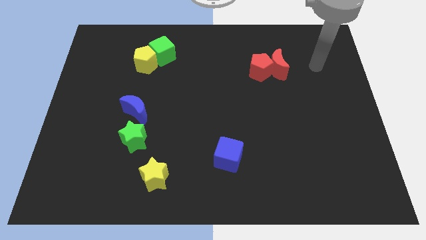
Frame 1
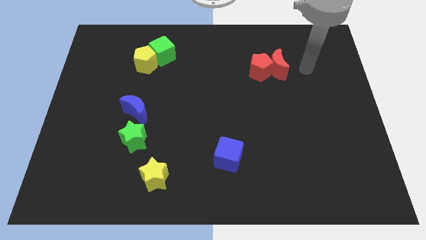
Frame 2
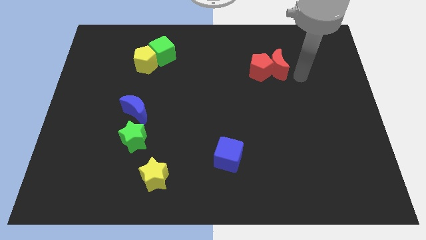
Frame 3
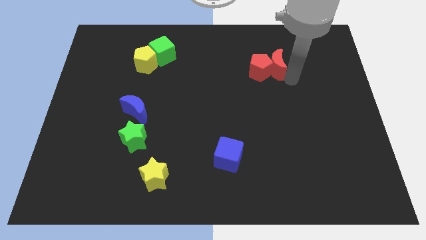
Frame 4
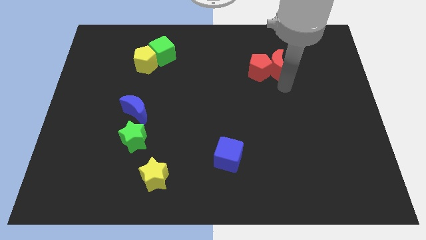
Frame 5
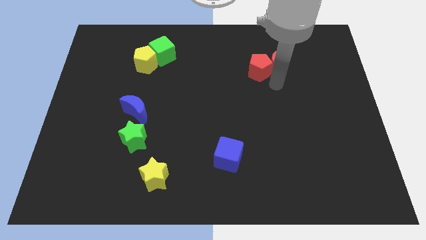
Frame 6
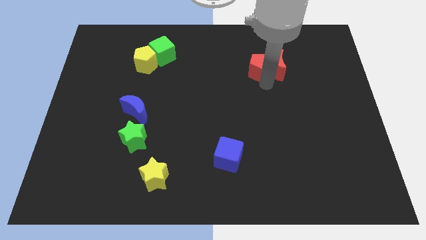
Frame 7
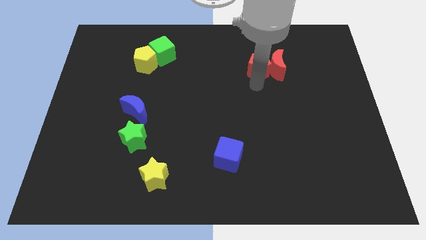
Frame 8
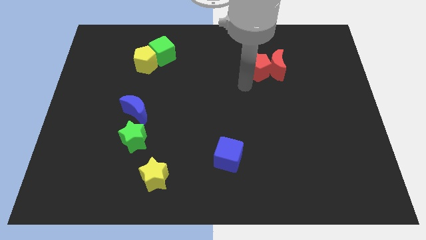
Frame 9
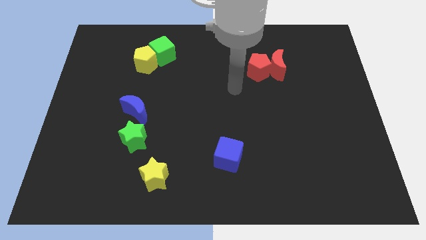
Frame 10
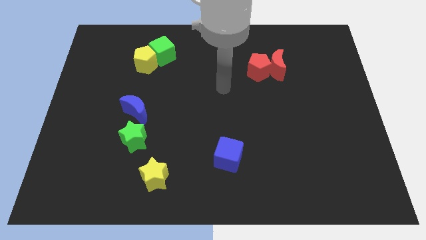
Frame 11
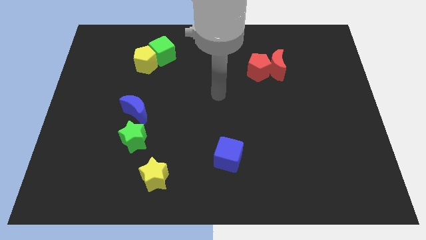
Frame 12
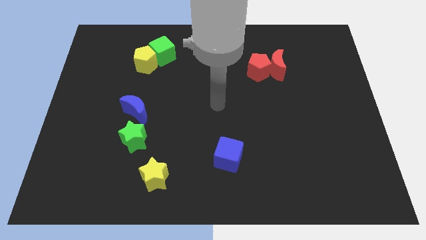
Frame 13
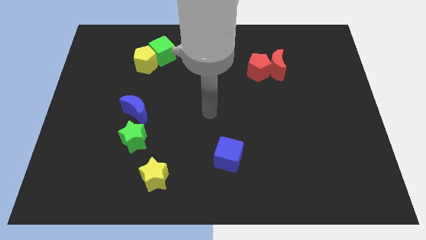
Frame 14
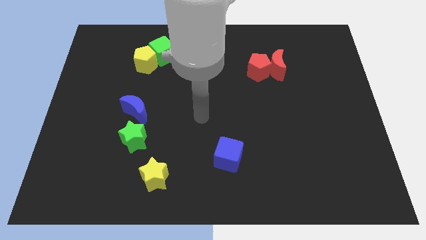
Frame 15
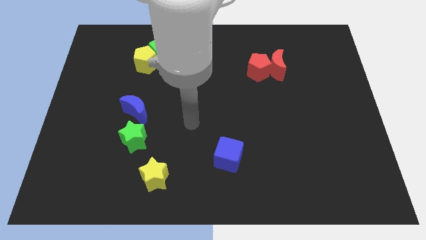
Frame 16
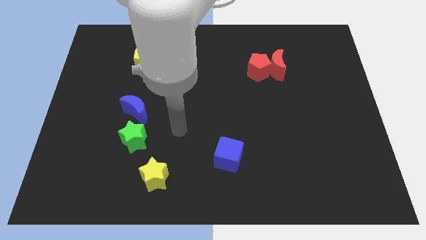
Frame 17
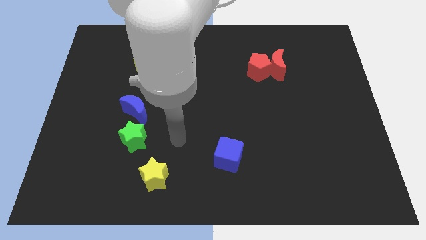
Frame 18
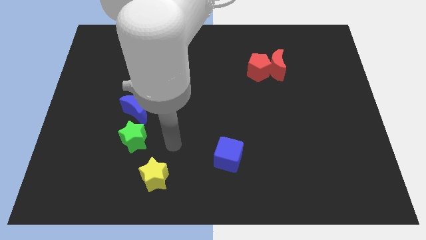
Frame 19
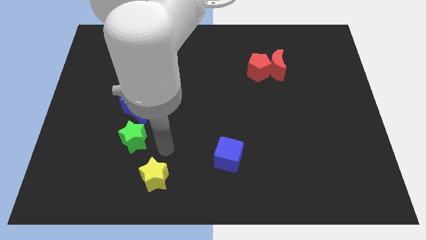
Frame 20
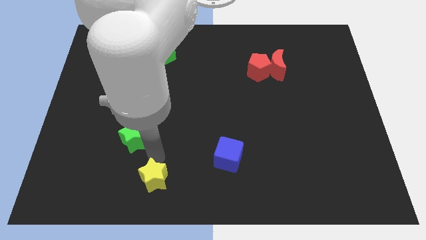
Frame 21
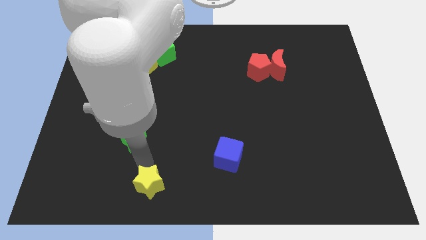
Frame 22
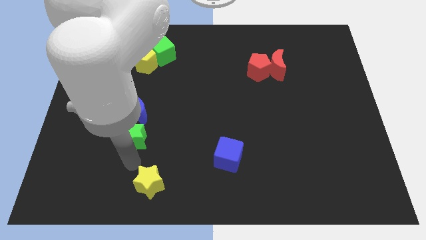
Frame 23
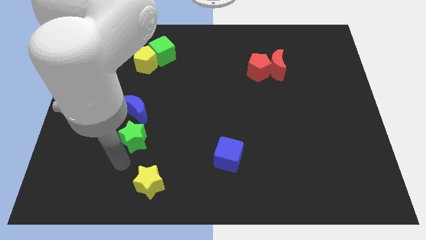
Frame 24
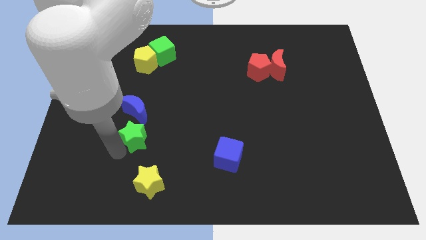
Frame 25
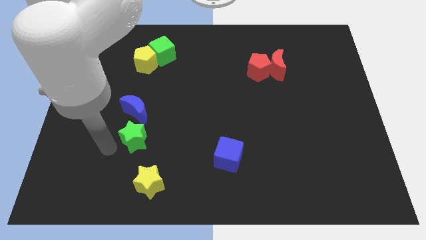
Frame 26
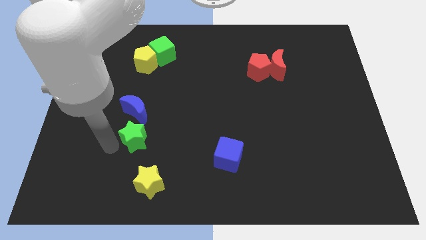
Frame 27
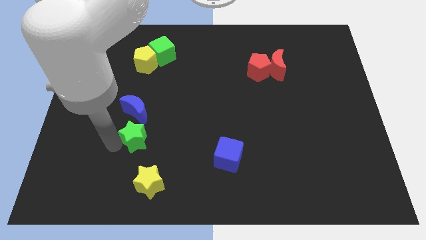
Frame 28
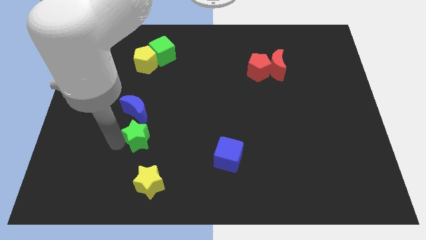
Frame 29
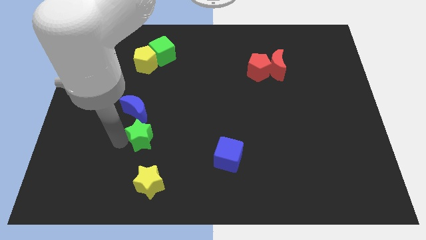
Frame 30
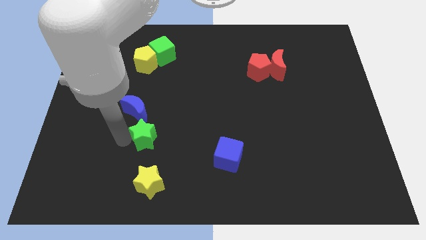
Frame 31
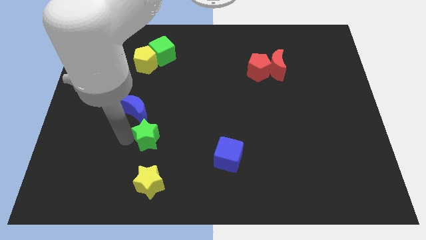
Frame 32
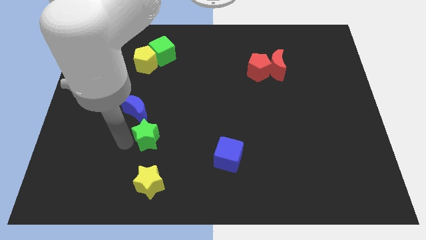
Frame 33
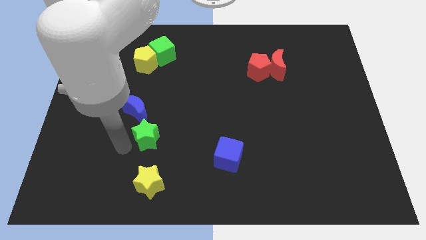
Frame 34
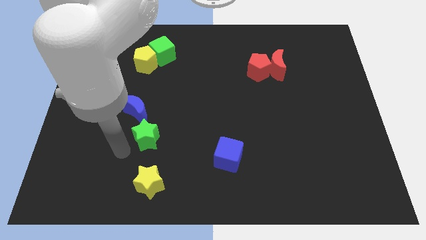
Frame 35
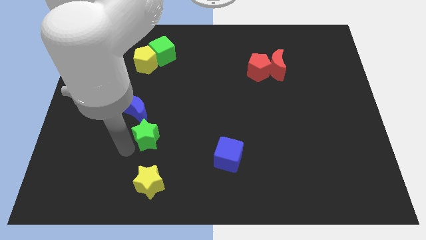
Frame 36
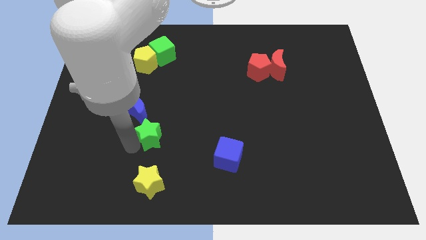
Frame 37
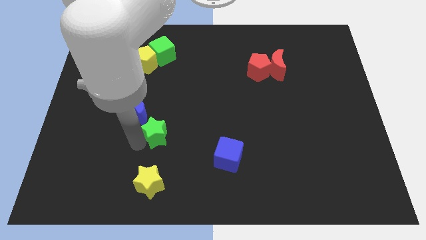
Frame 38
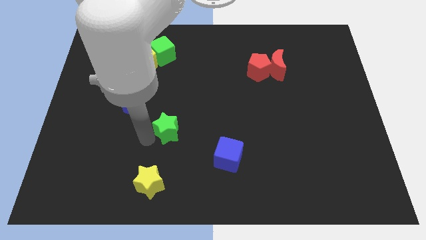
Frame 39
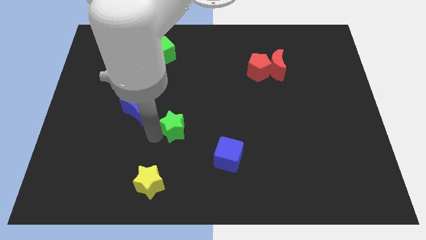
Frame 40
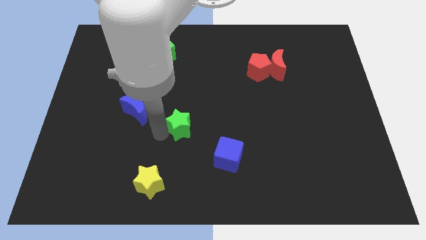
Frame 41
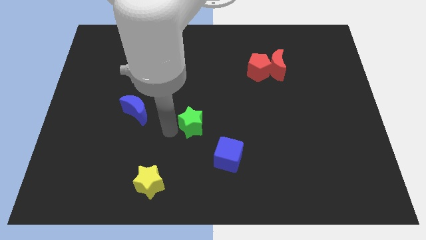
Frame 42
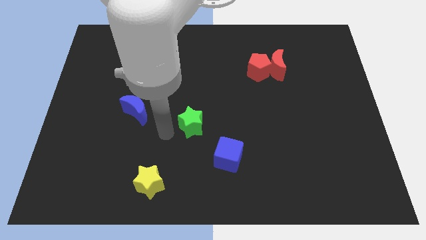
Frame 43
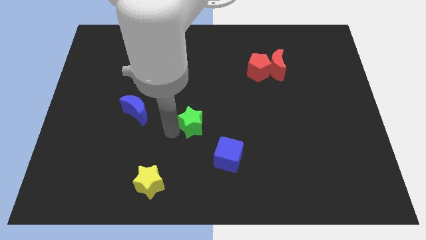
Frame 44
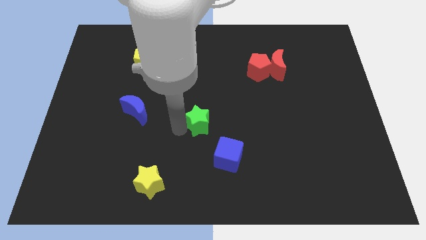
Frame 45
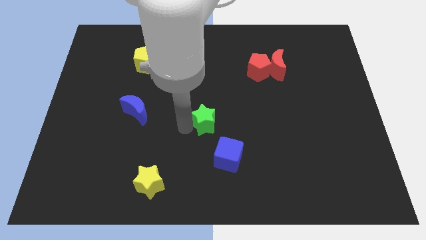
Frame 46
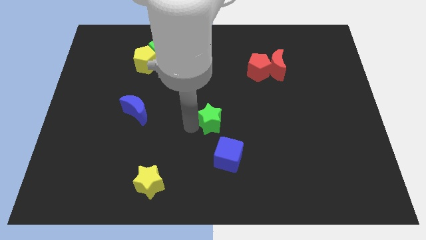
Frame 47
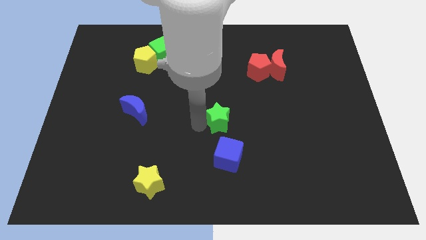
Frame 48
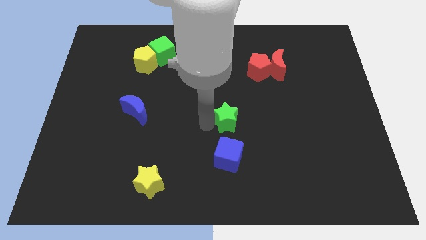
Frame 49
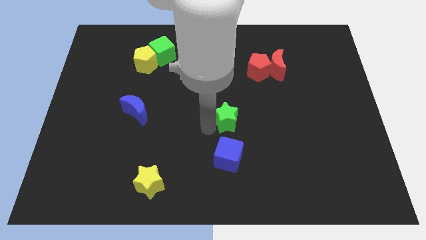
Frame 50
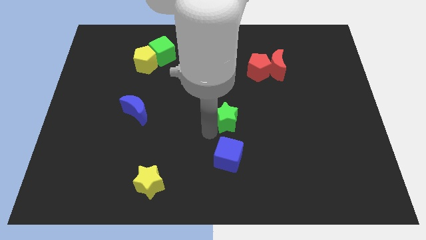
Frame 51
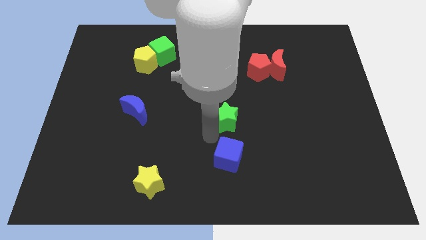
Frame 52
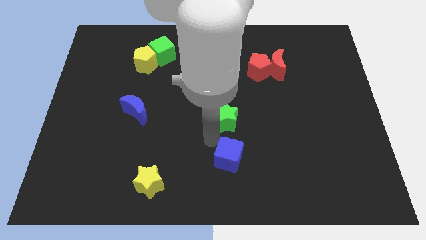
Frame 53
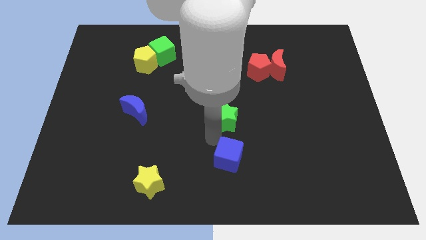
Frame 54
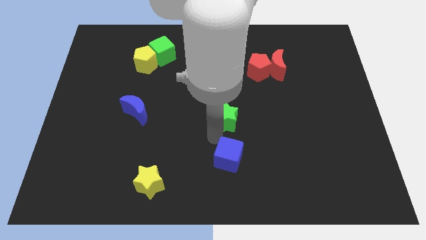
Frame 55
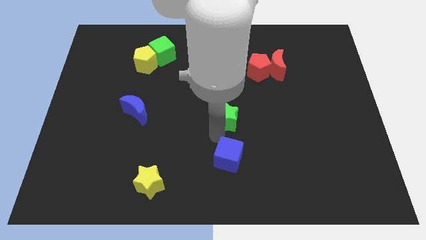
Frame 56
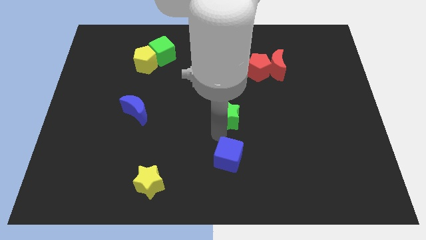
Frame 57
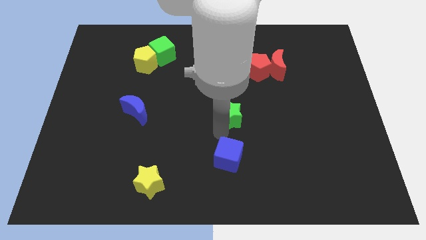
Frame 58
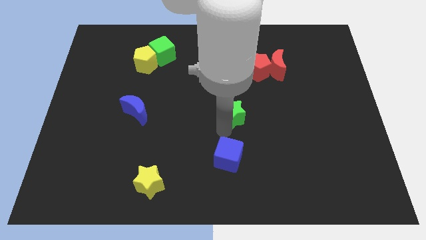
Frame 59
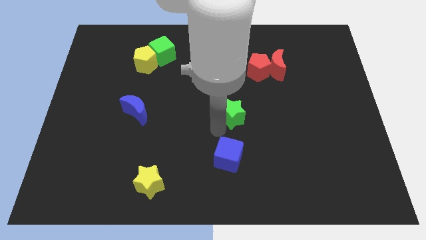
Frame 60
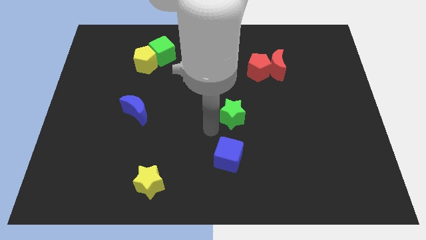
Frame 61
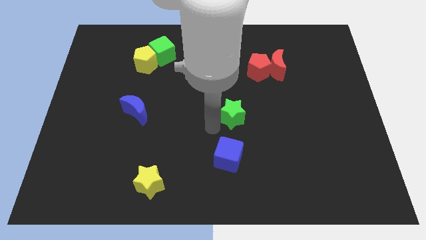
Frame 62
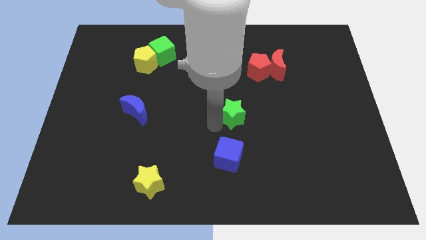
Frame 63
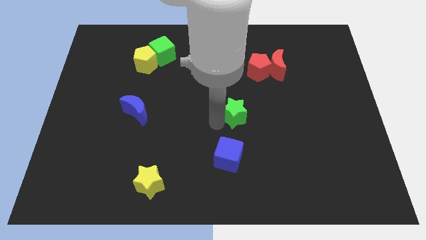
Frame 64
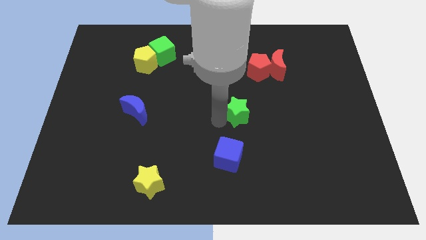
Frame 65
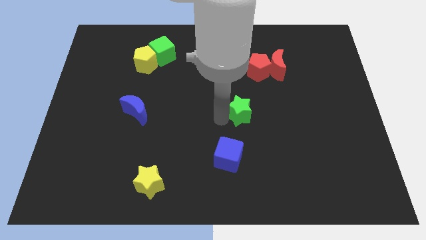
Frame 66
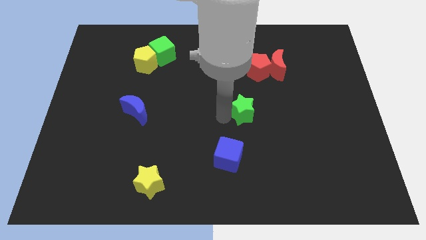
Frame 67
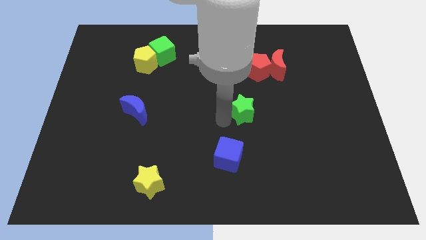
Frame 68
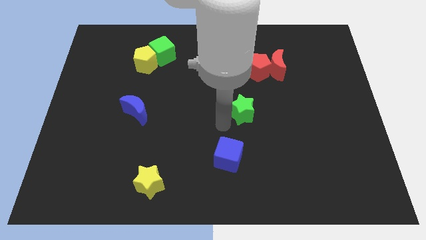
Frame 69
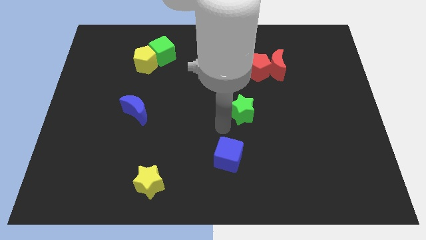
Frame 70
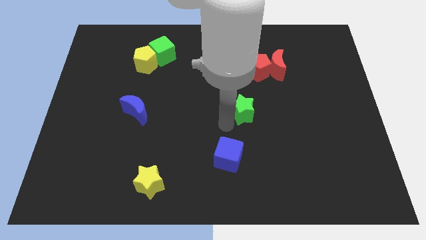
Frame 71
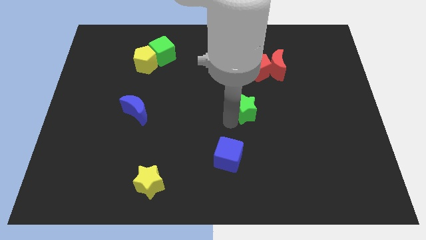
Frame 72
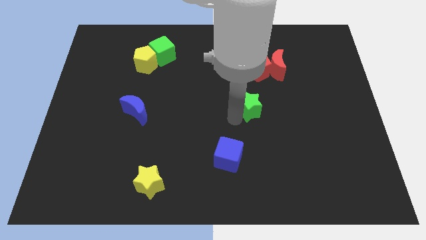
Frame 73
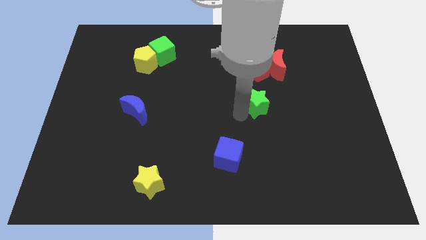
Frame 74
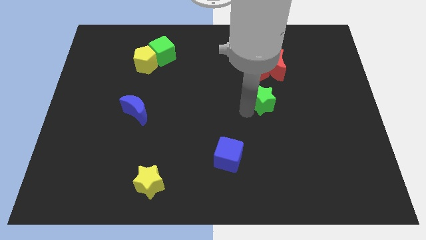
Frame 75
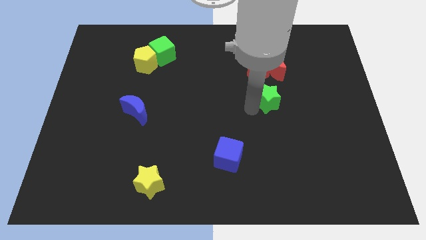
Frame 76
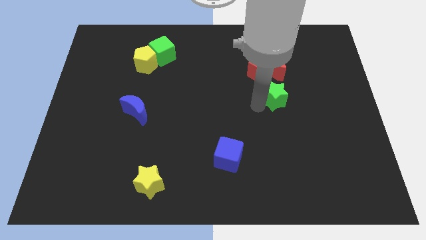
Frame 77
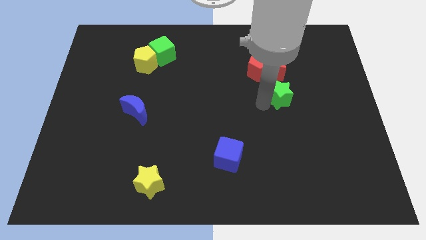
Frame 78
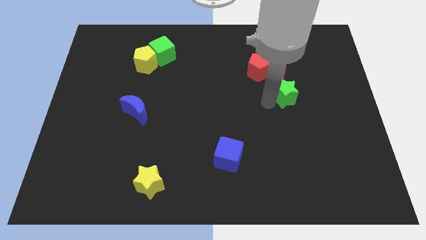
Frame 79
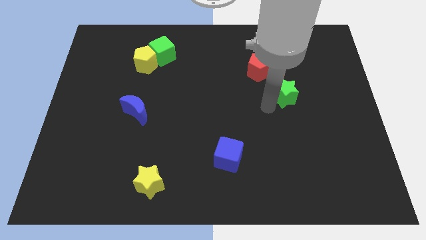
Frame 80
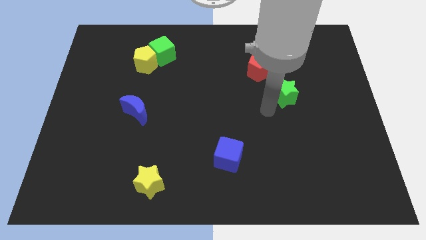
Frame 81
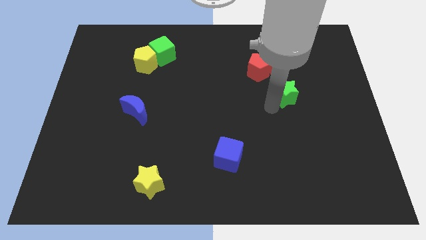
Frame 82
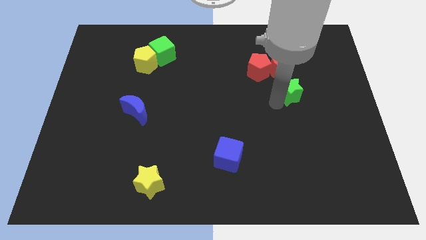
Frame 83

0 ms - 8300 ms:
slide the green star diagonally down and to the right of the red moon
